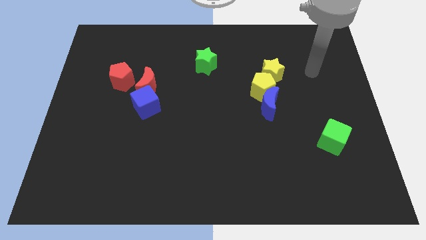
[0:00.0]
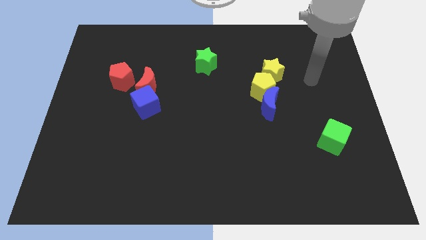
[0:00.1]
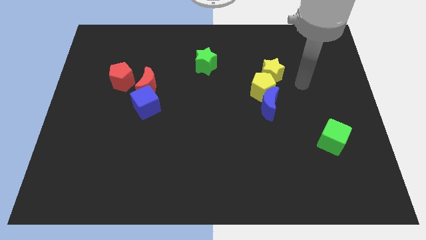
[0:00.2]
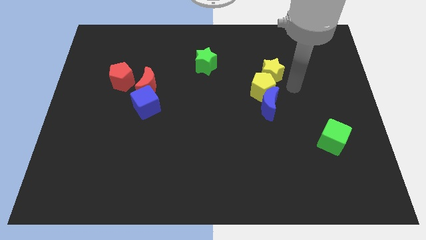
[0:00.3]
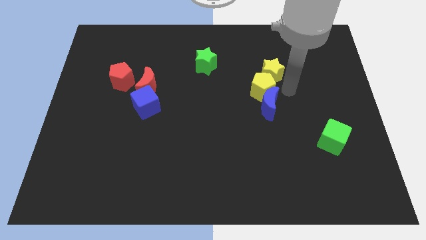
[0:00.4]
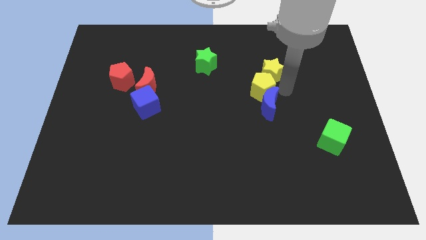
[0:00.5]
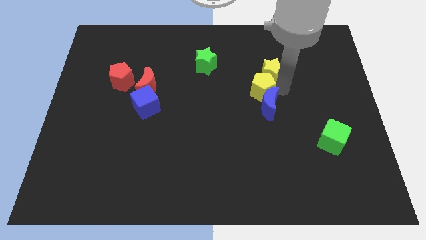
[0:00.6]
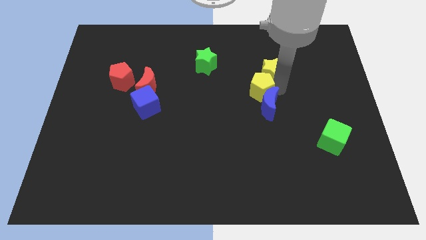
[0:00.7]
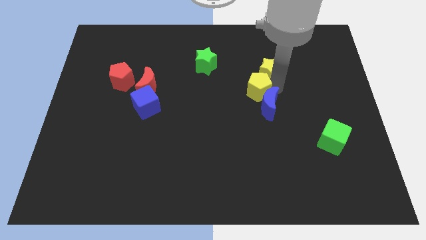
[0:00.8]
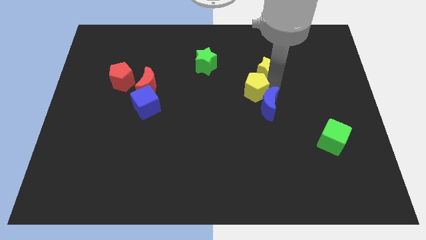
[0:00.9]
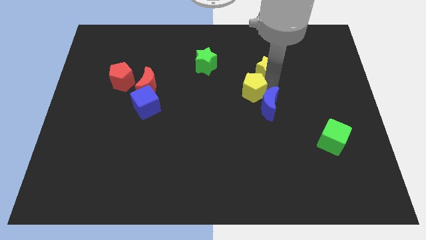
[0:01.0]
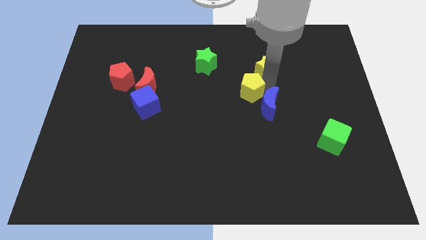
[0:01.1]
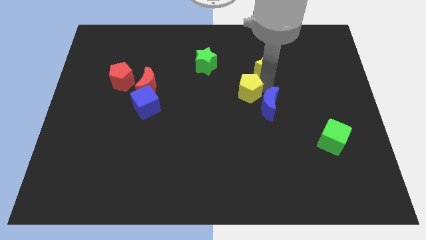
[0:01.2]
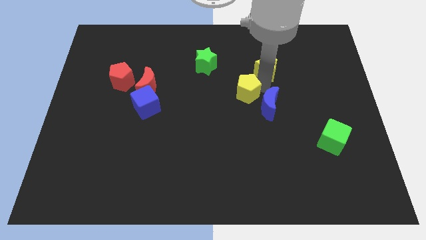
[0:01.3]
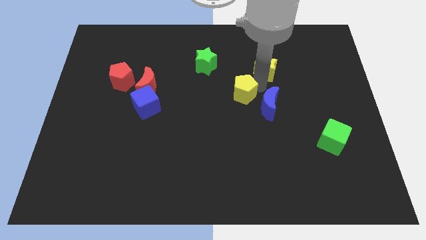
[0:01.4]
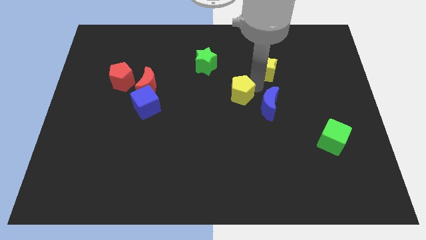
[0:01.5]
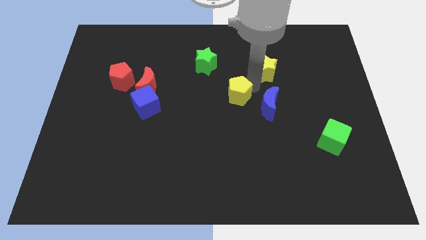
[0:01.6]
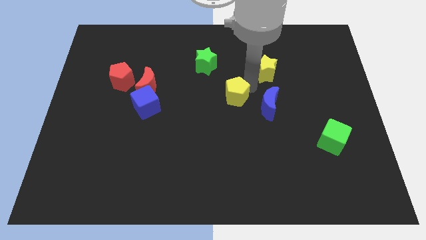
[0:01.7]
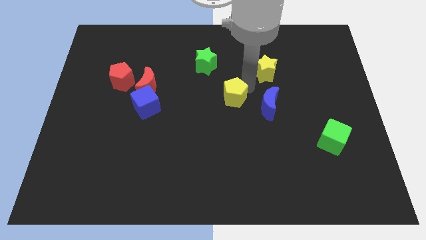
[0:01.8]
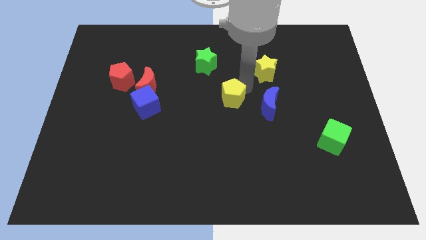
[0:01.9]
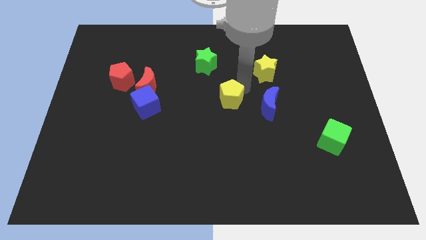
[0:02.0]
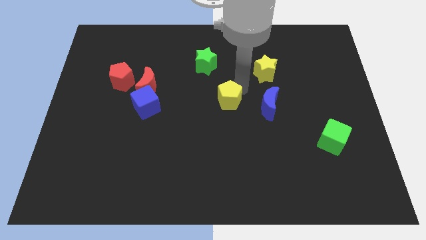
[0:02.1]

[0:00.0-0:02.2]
pull the yellow pentagon apart from the blue moon and yellow star

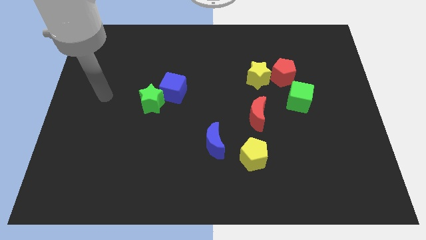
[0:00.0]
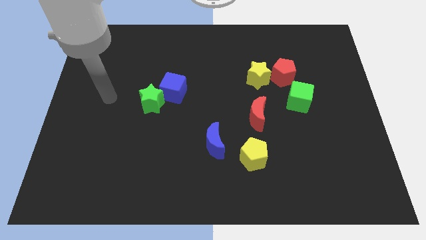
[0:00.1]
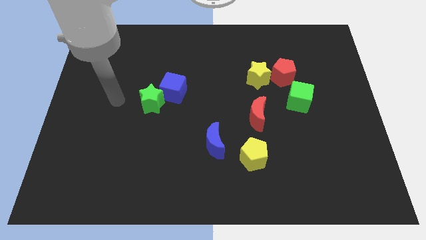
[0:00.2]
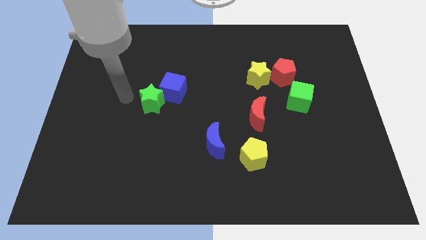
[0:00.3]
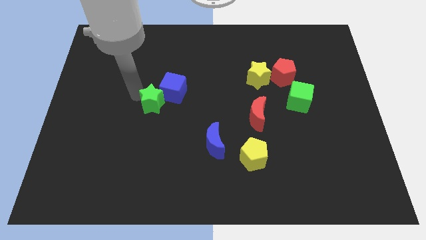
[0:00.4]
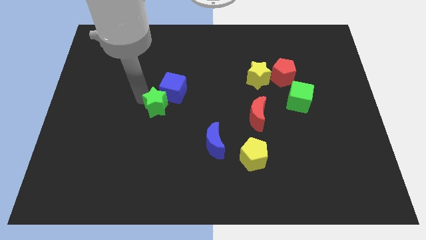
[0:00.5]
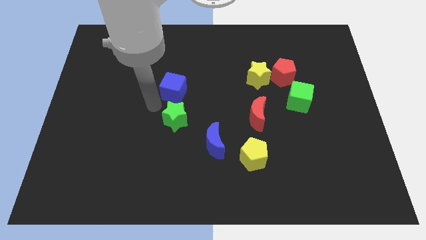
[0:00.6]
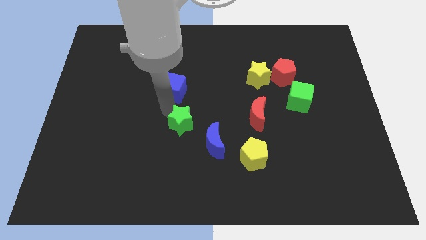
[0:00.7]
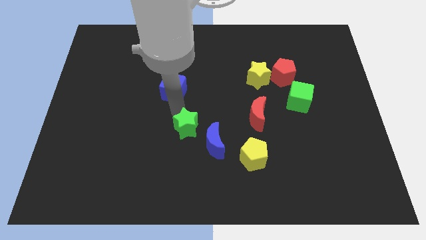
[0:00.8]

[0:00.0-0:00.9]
separate the blue cube from the green star

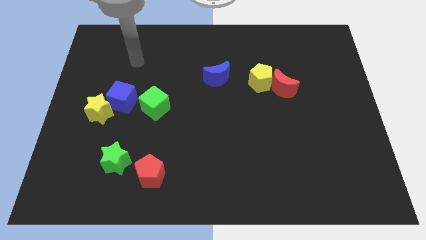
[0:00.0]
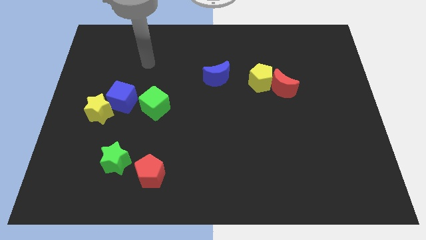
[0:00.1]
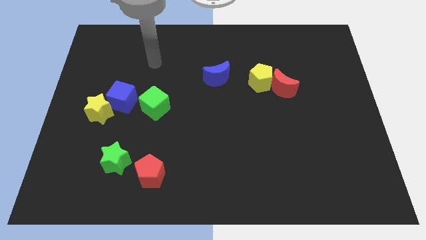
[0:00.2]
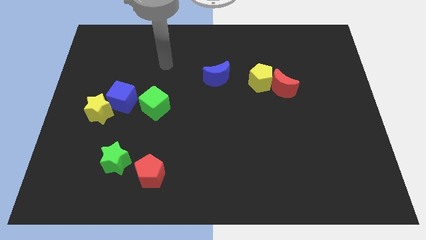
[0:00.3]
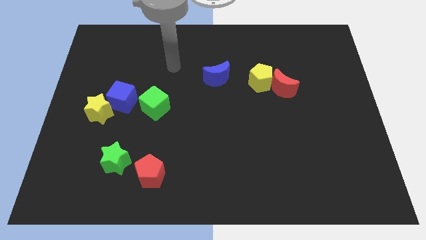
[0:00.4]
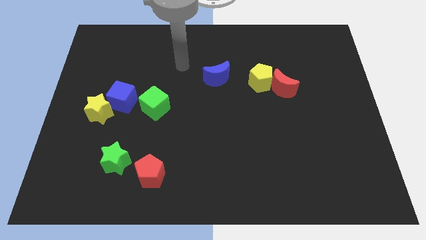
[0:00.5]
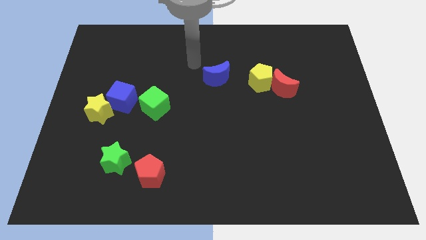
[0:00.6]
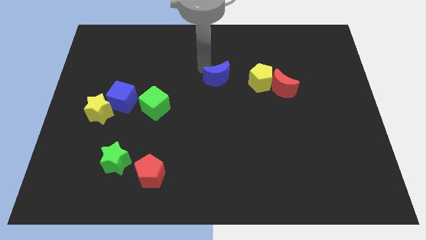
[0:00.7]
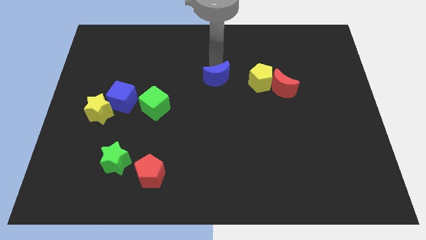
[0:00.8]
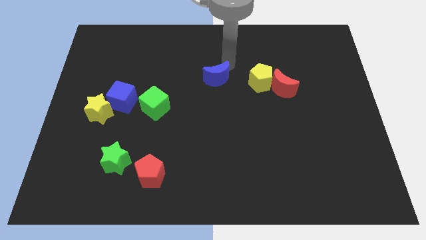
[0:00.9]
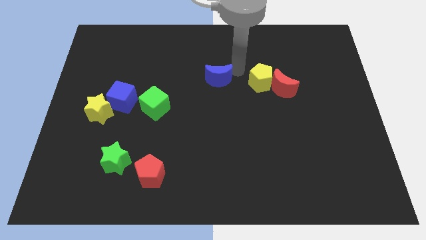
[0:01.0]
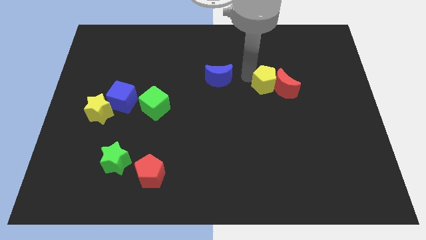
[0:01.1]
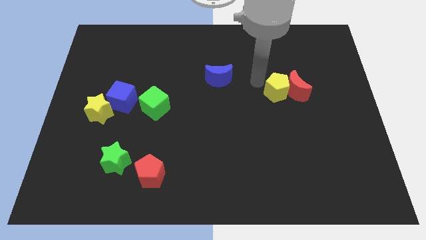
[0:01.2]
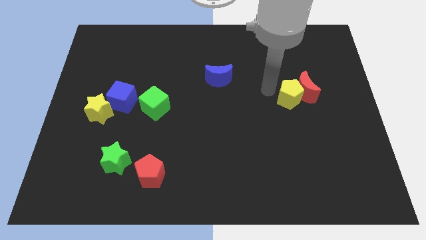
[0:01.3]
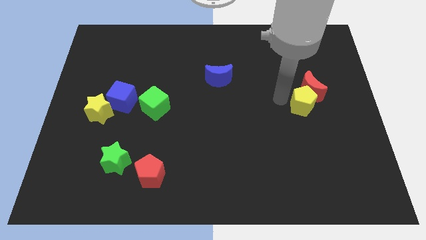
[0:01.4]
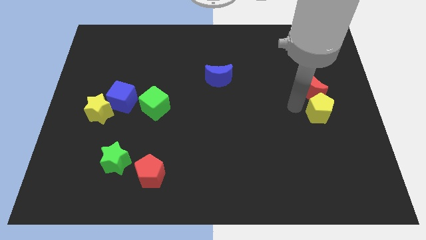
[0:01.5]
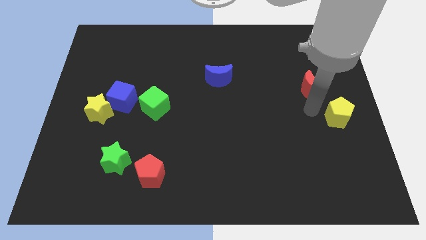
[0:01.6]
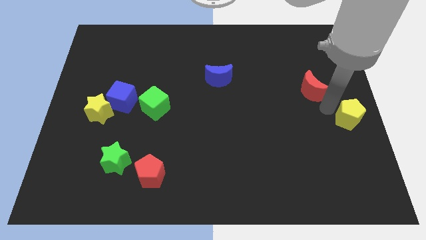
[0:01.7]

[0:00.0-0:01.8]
move the red moon away from the yellow pentagon

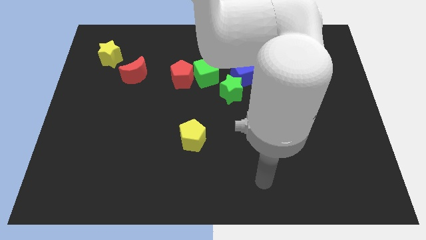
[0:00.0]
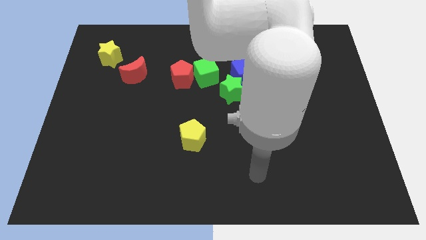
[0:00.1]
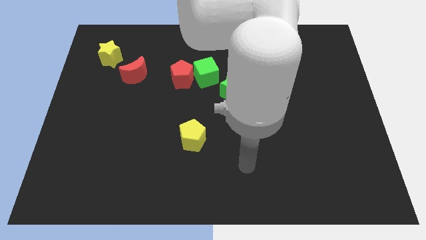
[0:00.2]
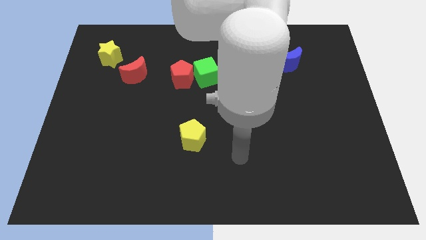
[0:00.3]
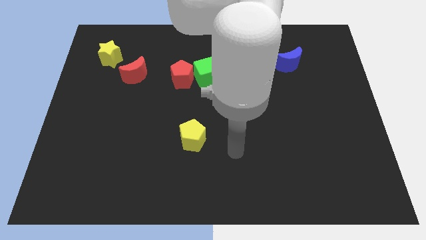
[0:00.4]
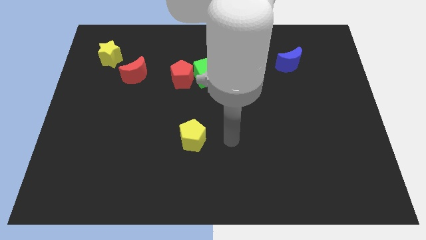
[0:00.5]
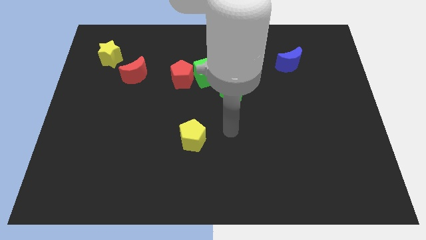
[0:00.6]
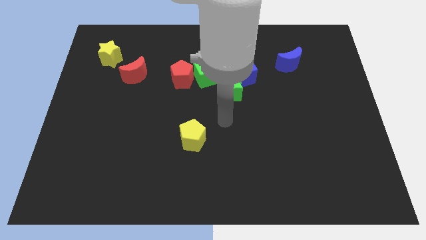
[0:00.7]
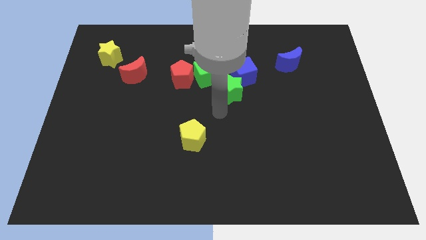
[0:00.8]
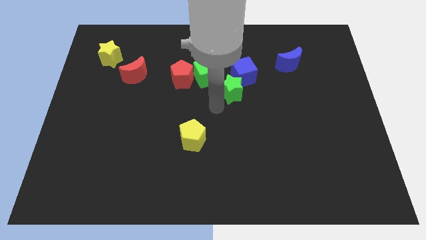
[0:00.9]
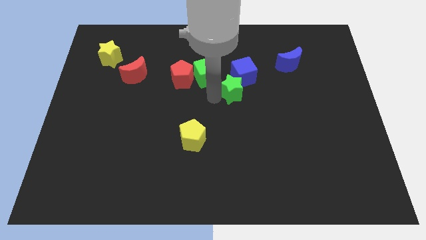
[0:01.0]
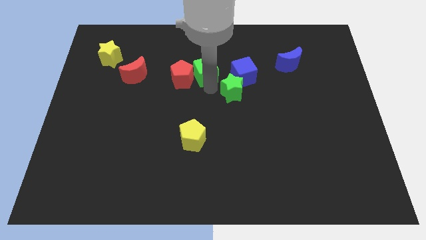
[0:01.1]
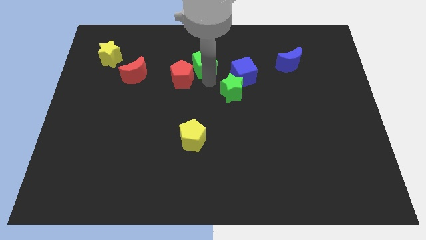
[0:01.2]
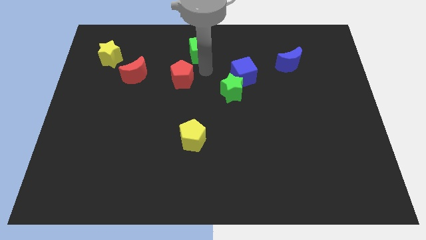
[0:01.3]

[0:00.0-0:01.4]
move the red pentagon away from the green cube

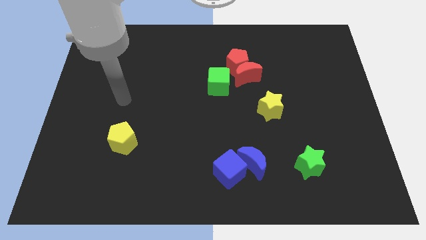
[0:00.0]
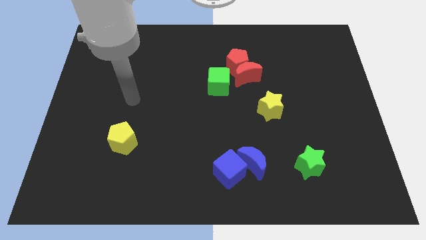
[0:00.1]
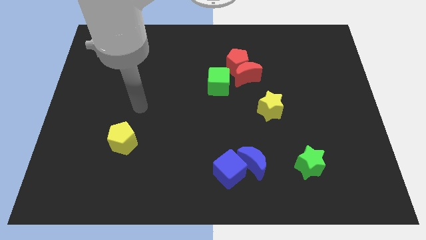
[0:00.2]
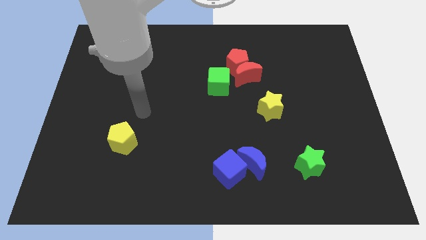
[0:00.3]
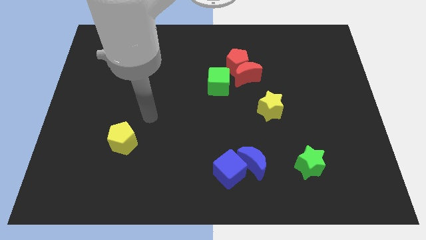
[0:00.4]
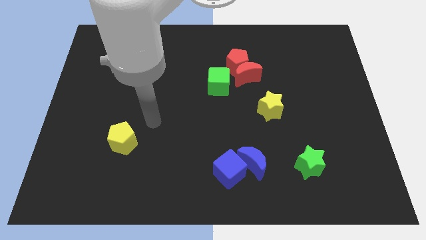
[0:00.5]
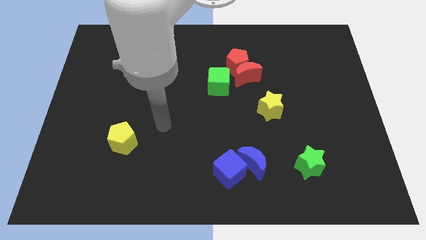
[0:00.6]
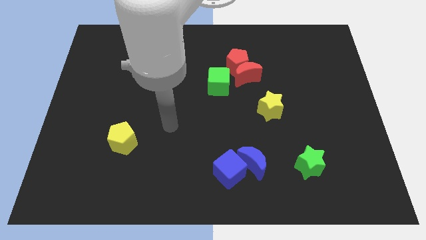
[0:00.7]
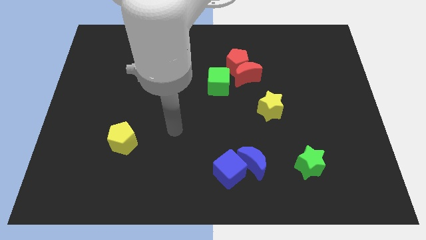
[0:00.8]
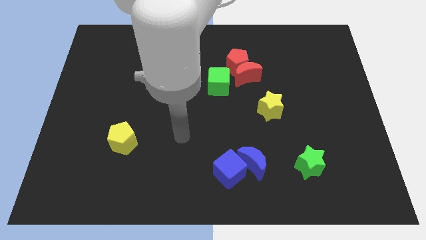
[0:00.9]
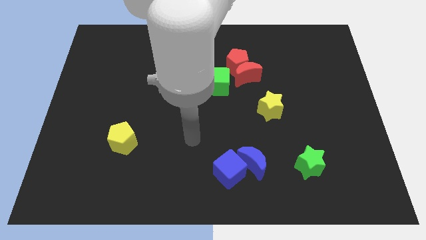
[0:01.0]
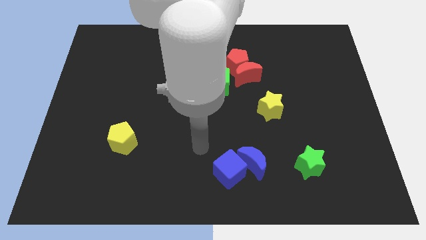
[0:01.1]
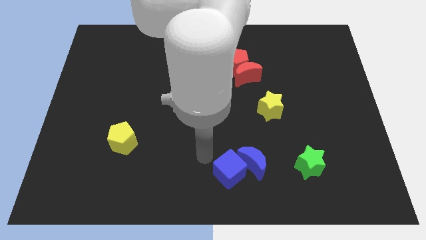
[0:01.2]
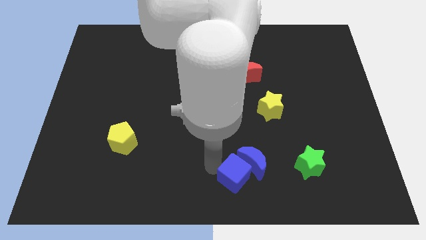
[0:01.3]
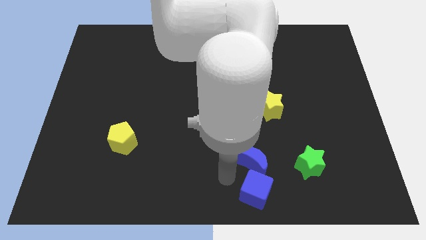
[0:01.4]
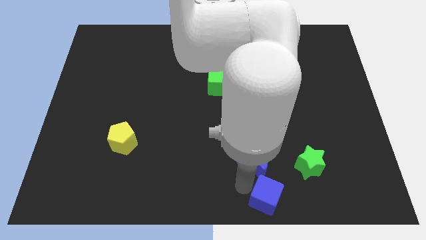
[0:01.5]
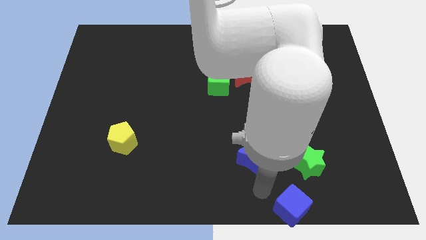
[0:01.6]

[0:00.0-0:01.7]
separate the blue moon from the blue cube

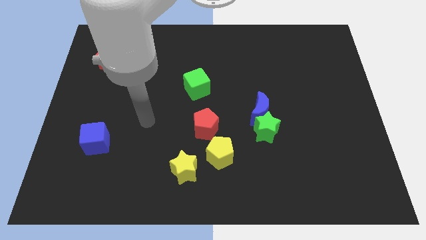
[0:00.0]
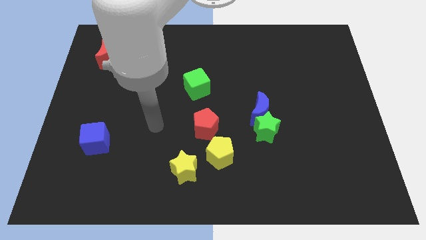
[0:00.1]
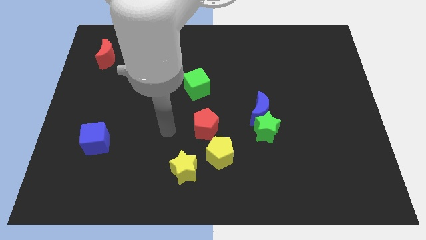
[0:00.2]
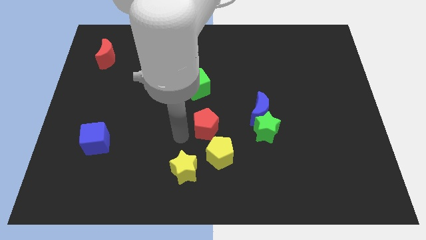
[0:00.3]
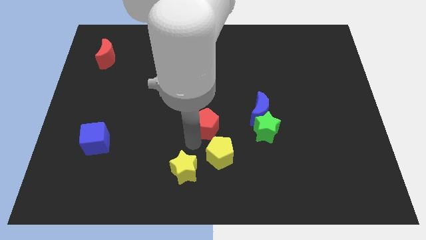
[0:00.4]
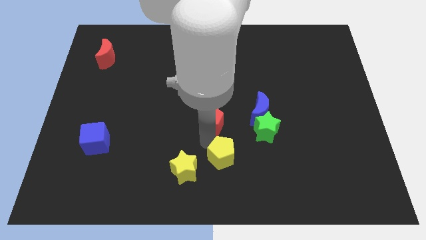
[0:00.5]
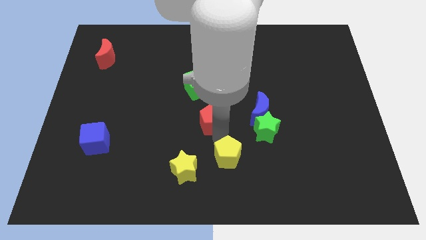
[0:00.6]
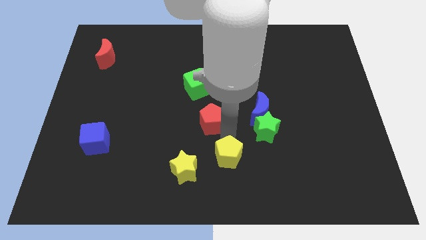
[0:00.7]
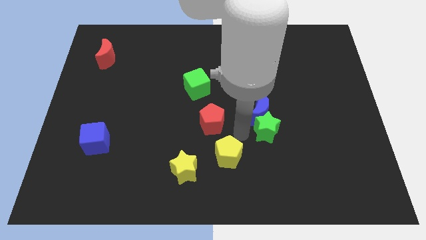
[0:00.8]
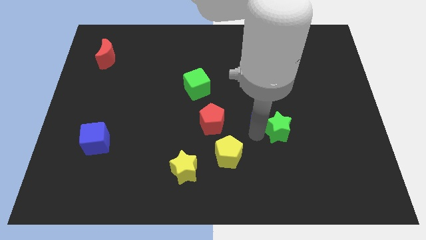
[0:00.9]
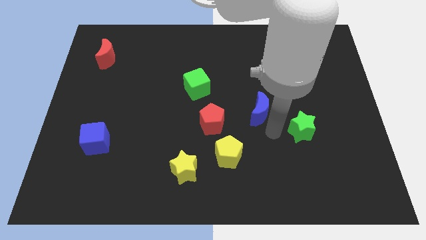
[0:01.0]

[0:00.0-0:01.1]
pull the blue moon apart from the green star
